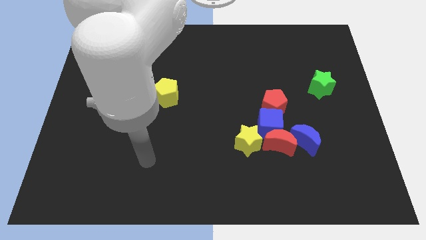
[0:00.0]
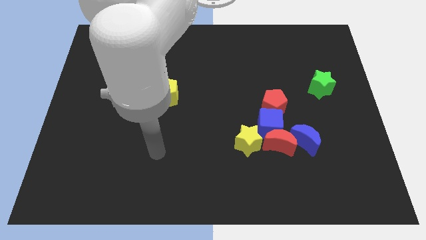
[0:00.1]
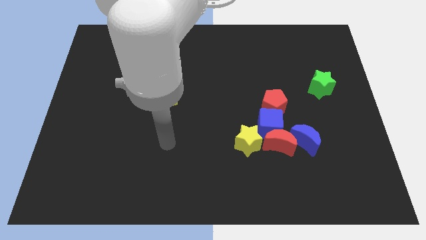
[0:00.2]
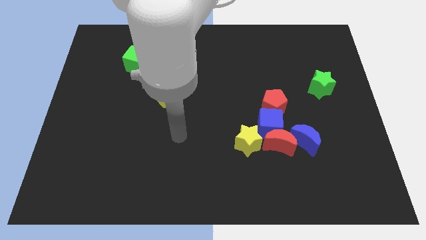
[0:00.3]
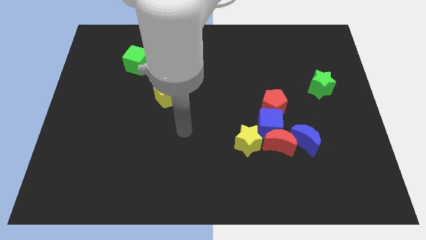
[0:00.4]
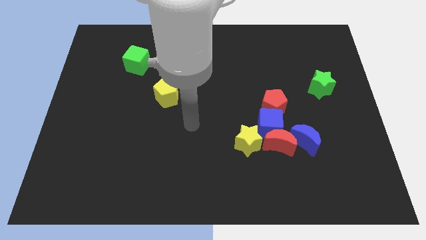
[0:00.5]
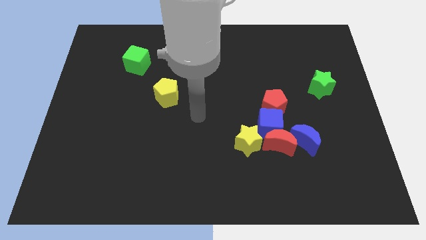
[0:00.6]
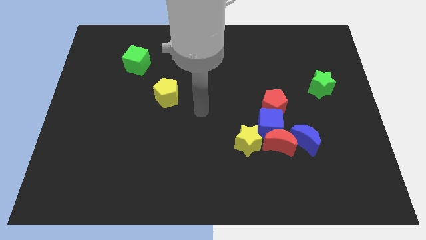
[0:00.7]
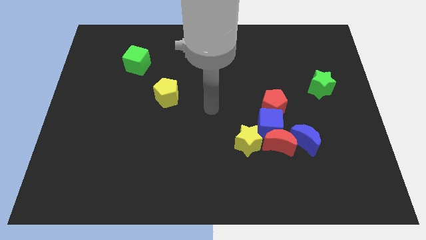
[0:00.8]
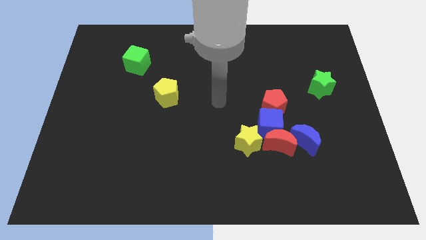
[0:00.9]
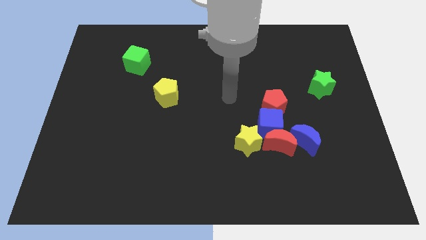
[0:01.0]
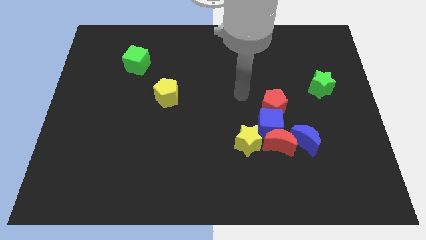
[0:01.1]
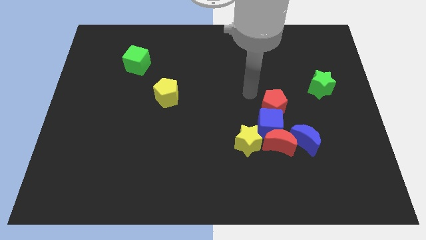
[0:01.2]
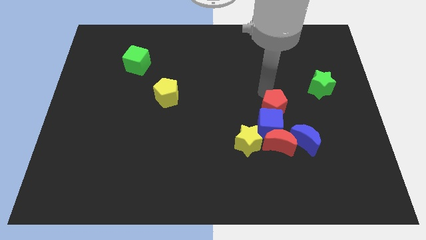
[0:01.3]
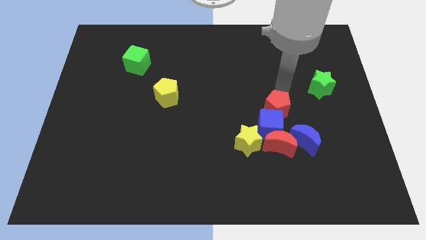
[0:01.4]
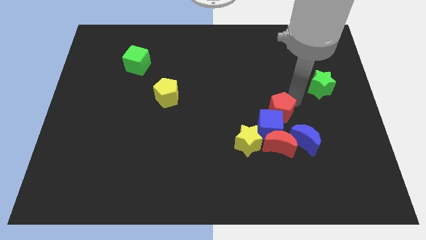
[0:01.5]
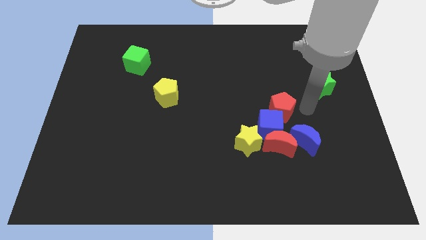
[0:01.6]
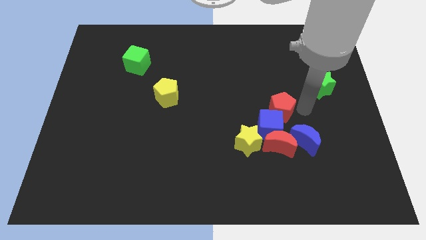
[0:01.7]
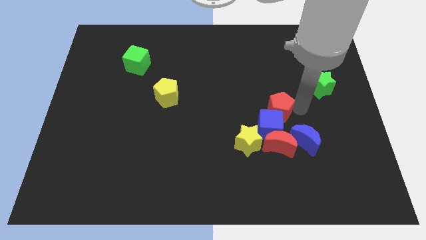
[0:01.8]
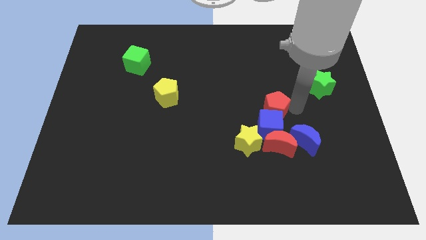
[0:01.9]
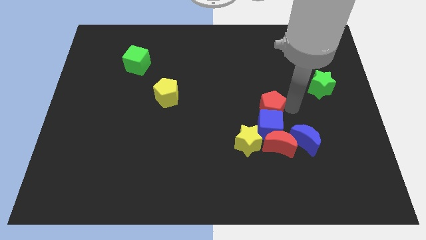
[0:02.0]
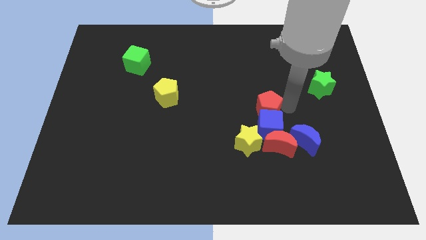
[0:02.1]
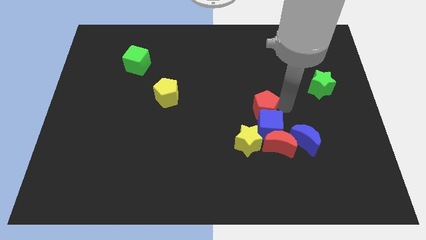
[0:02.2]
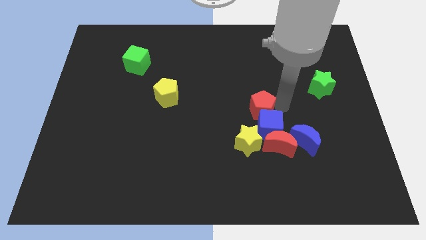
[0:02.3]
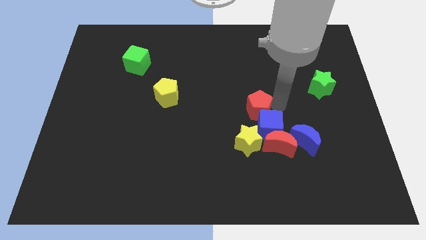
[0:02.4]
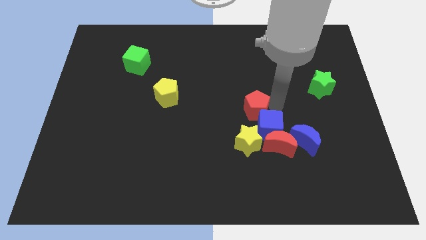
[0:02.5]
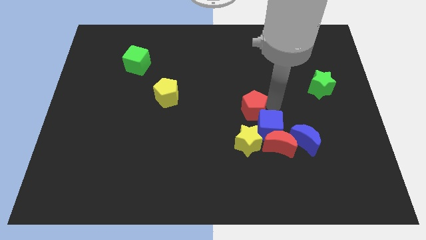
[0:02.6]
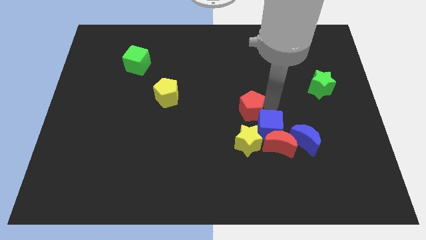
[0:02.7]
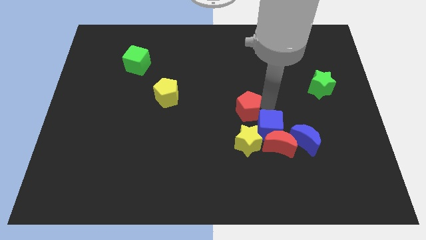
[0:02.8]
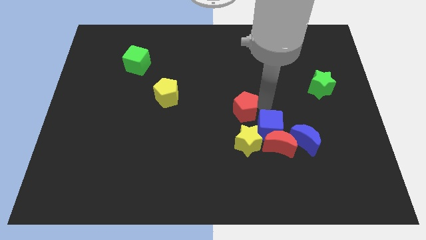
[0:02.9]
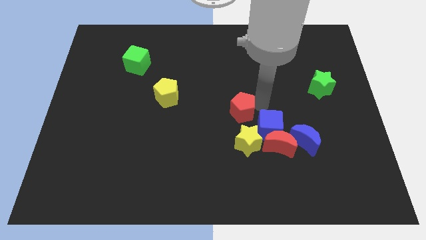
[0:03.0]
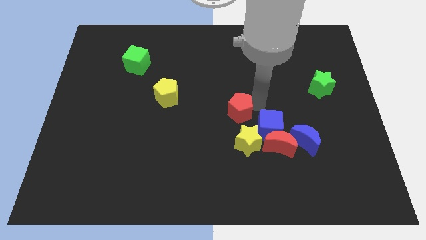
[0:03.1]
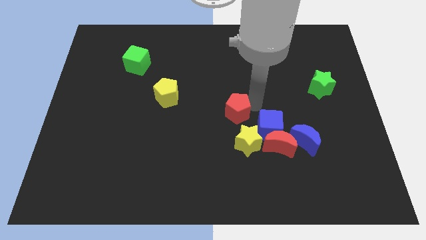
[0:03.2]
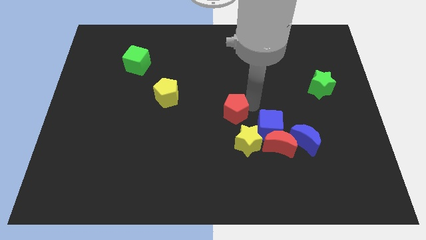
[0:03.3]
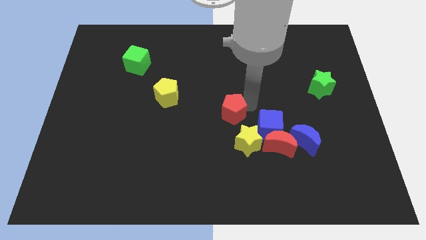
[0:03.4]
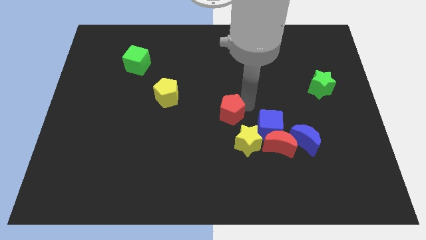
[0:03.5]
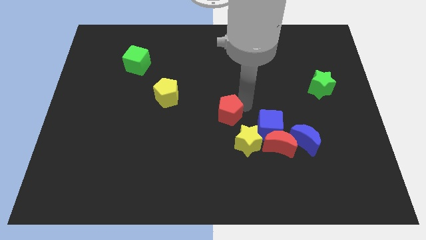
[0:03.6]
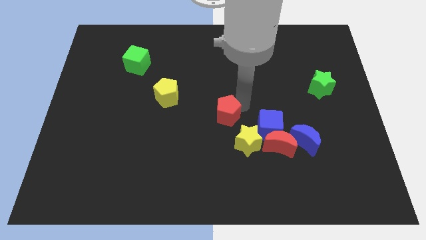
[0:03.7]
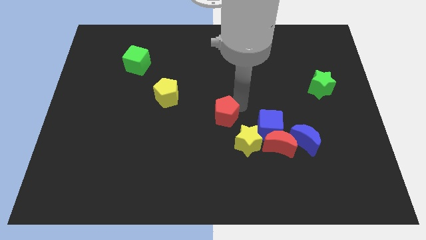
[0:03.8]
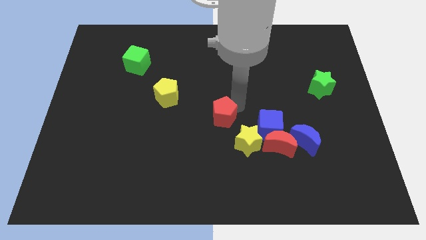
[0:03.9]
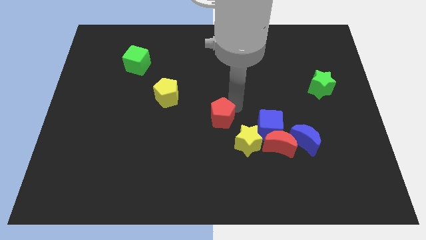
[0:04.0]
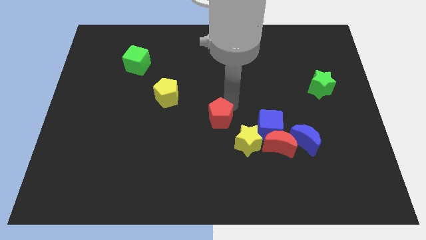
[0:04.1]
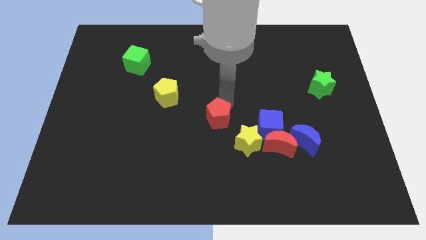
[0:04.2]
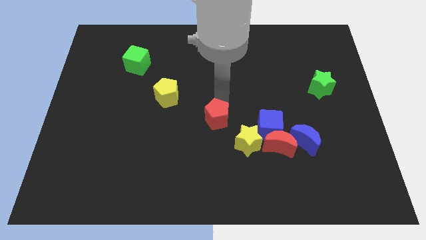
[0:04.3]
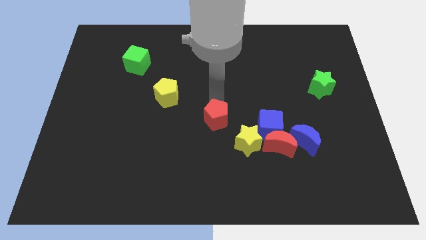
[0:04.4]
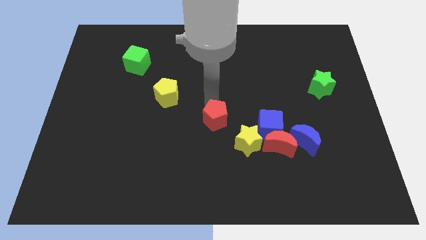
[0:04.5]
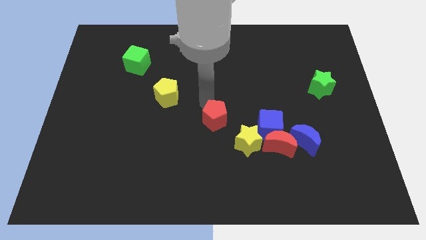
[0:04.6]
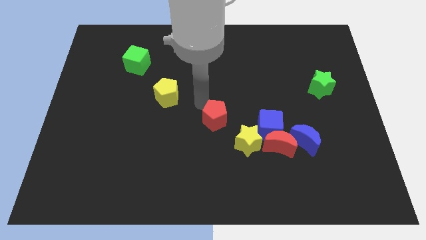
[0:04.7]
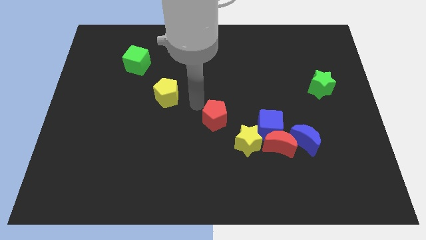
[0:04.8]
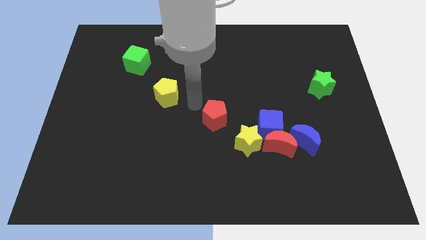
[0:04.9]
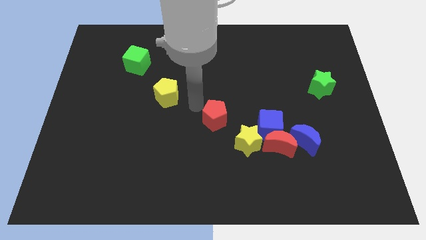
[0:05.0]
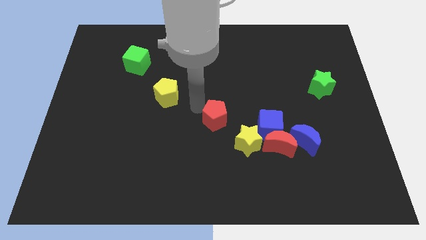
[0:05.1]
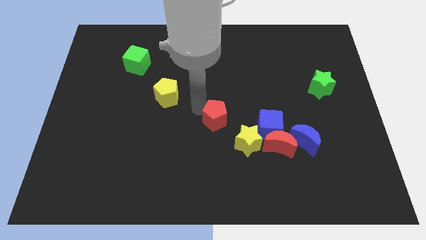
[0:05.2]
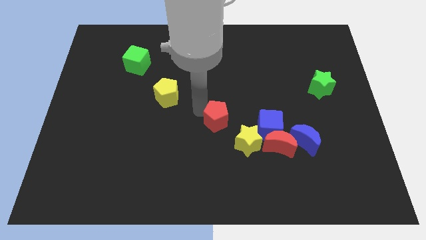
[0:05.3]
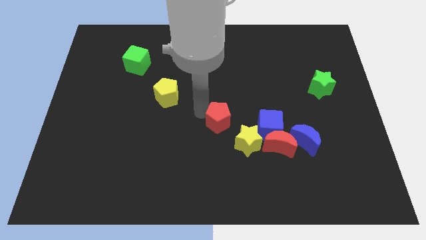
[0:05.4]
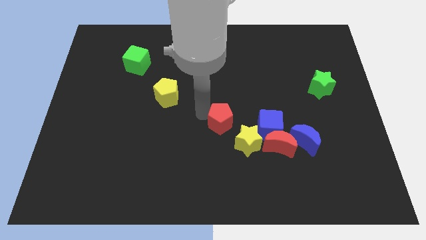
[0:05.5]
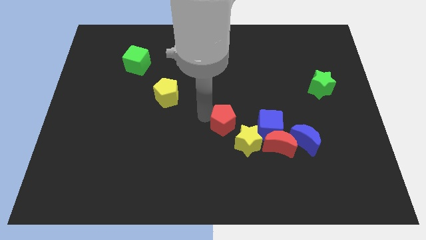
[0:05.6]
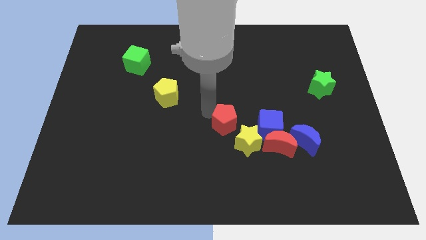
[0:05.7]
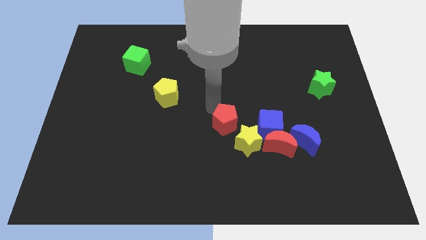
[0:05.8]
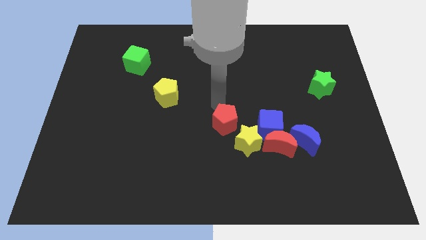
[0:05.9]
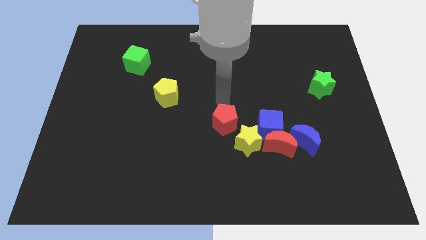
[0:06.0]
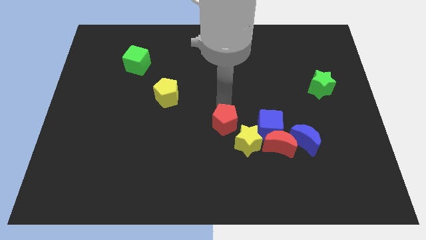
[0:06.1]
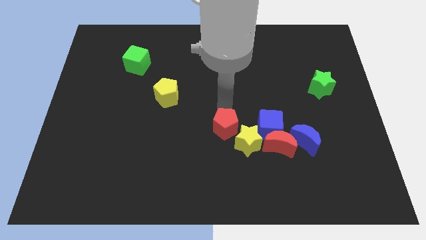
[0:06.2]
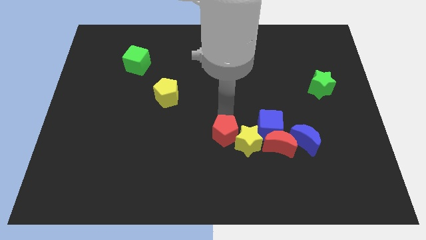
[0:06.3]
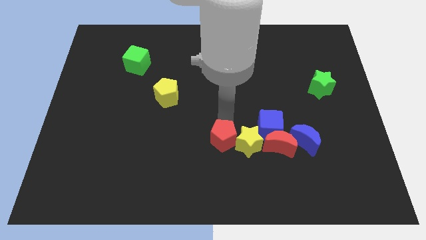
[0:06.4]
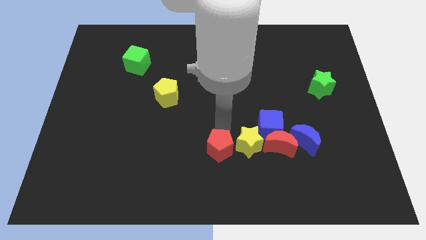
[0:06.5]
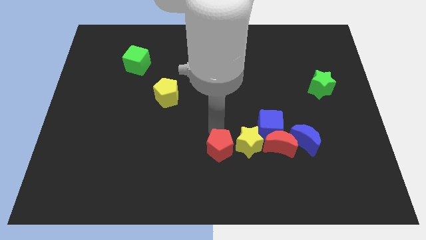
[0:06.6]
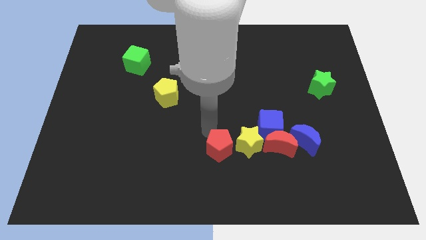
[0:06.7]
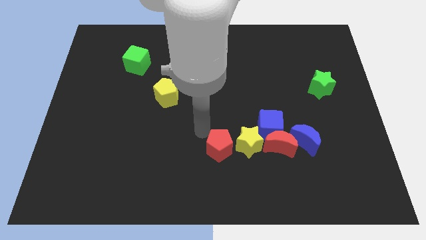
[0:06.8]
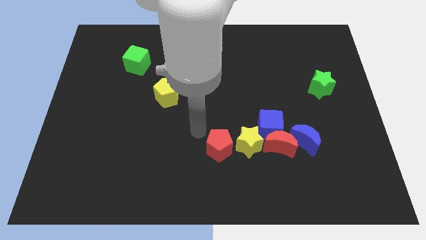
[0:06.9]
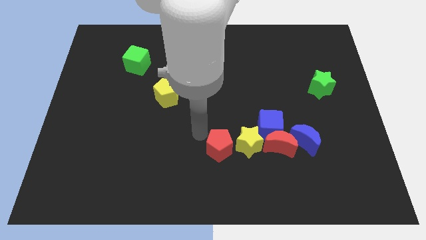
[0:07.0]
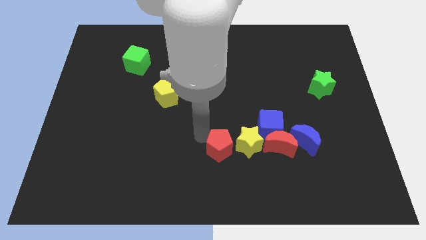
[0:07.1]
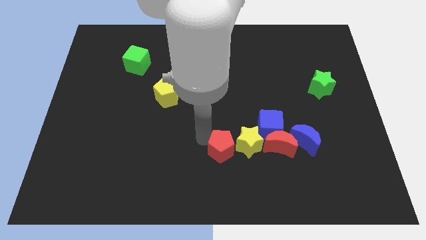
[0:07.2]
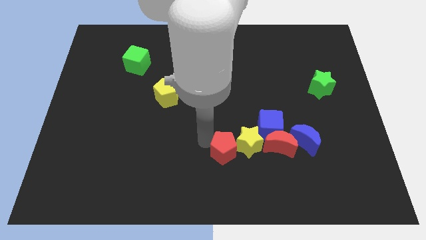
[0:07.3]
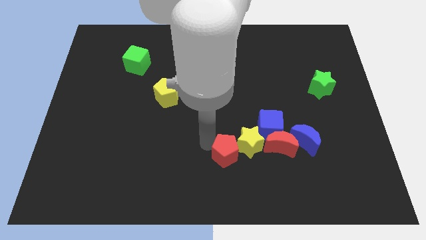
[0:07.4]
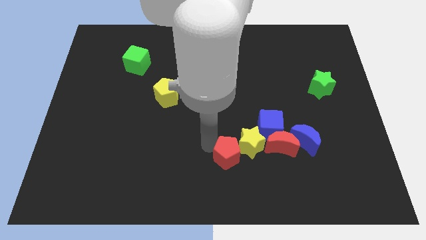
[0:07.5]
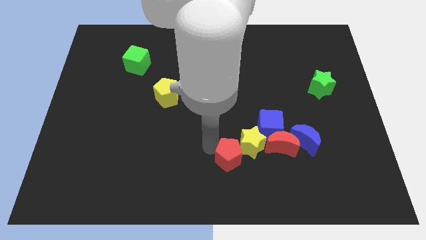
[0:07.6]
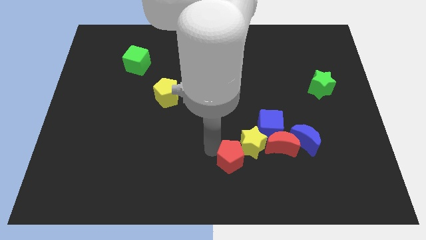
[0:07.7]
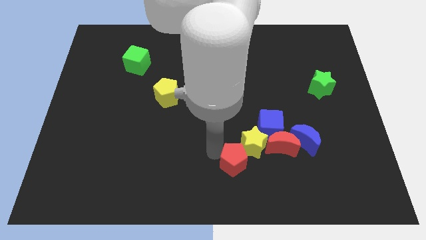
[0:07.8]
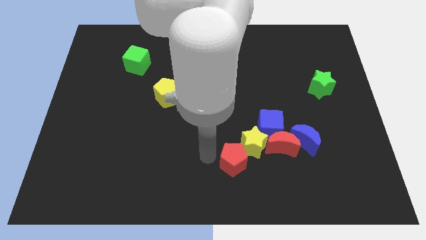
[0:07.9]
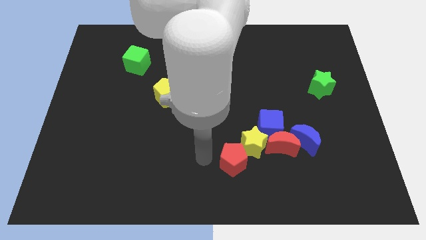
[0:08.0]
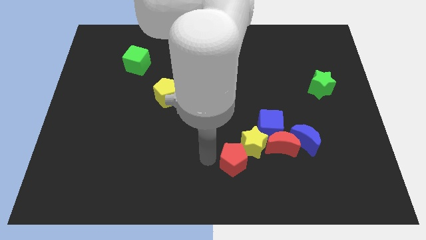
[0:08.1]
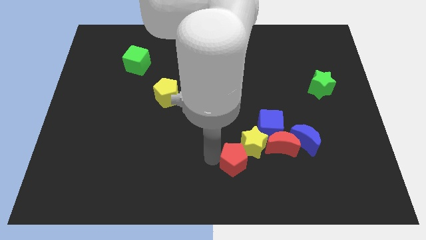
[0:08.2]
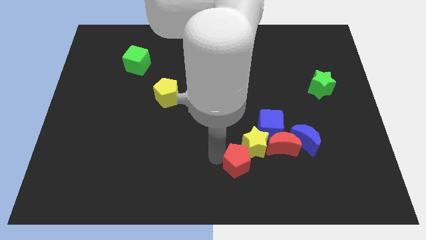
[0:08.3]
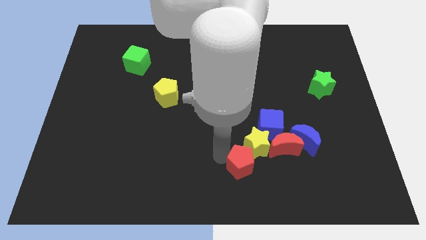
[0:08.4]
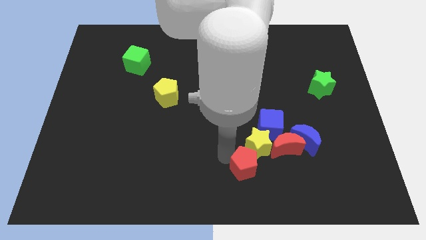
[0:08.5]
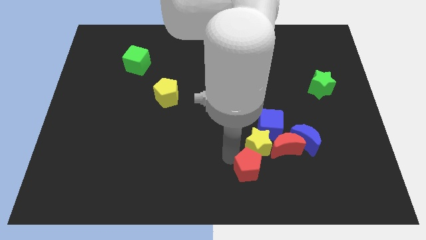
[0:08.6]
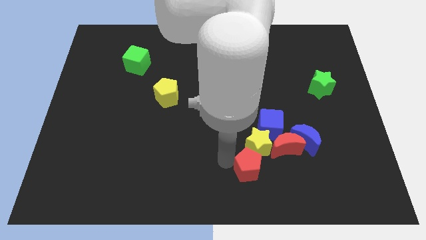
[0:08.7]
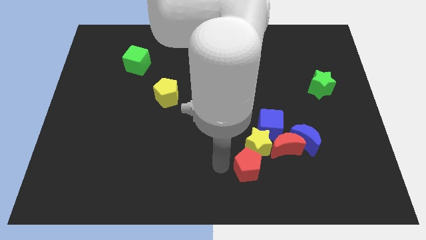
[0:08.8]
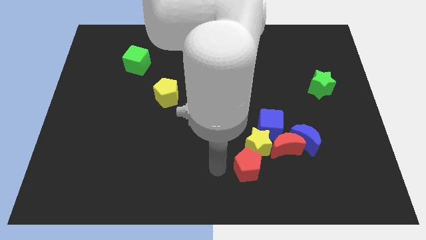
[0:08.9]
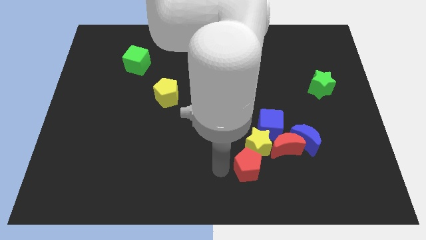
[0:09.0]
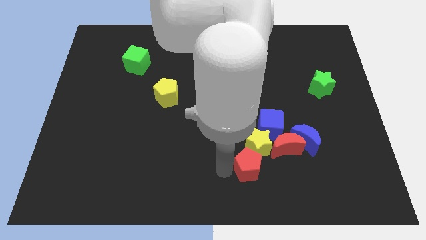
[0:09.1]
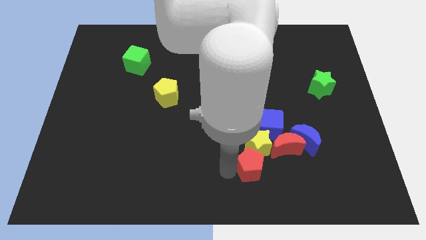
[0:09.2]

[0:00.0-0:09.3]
push the red pentagon diagonally down and to the right of the yellow star
